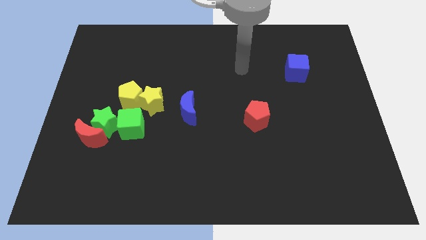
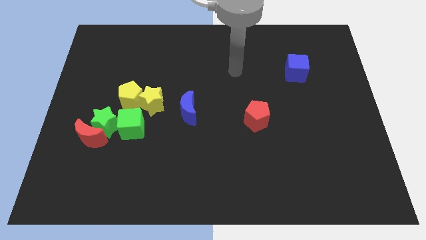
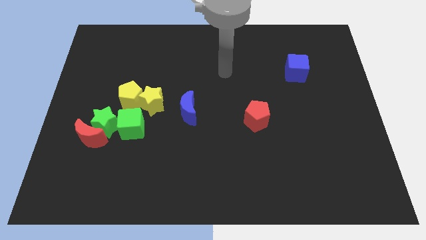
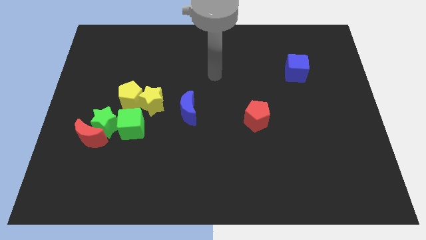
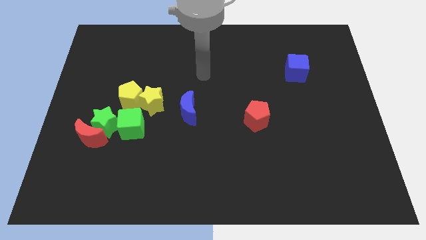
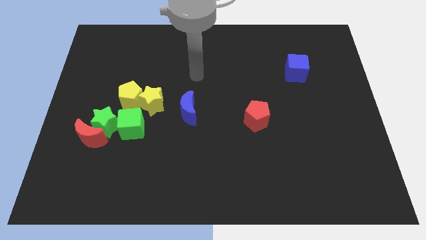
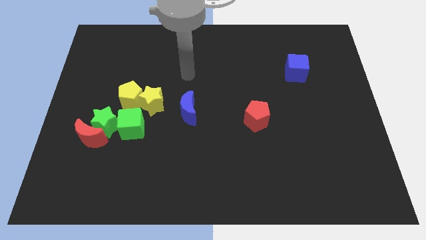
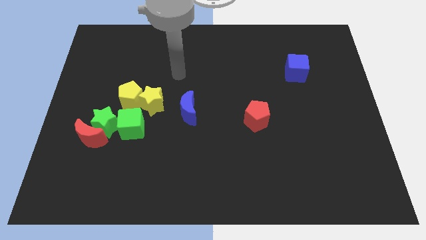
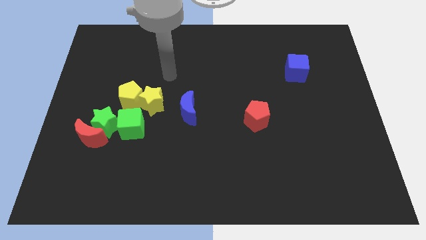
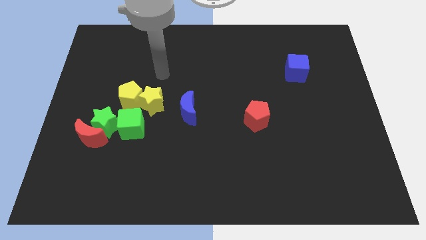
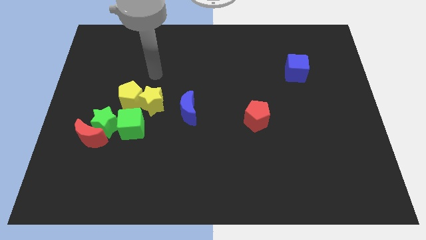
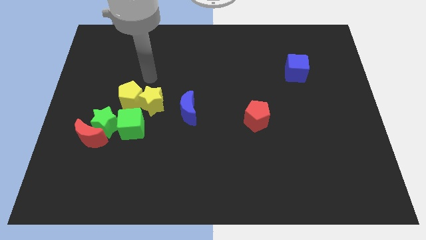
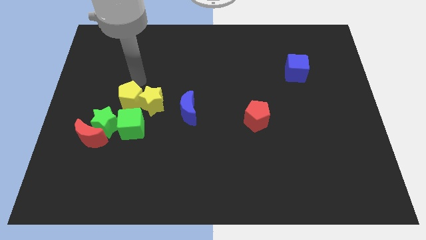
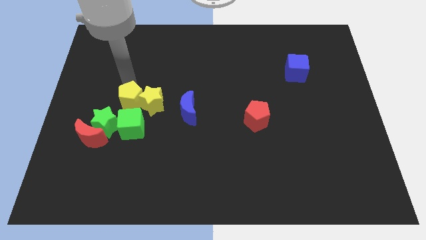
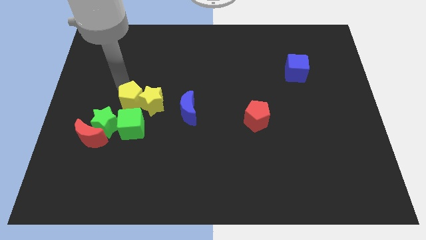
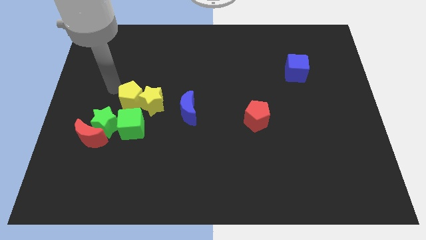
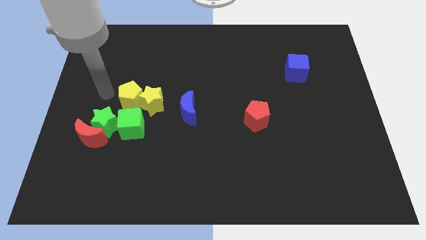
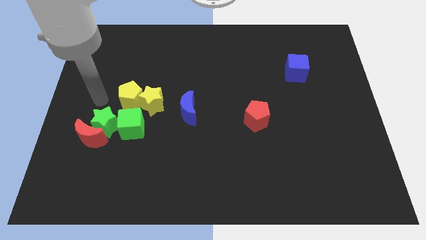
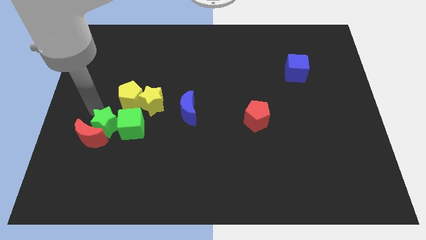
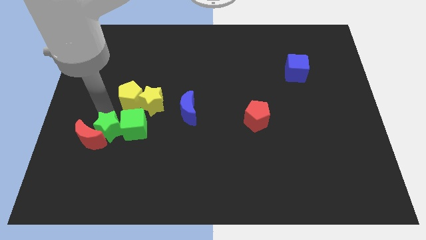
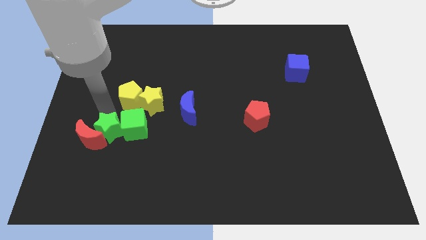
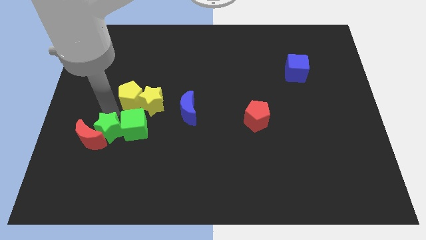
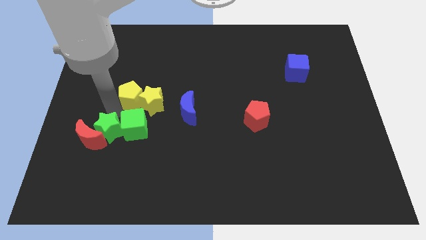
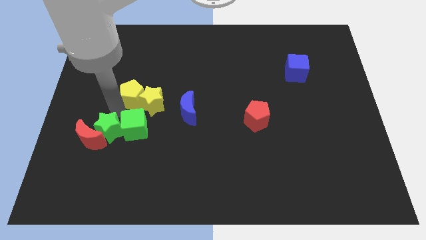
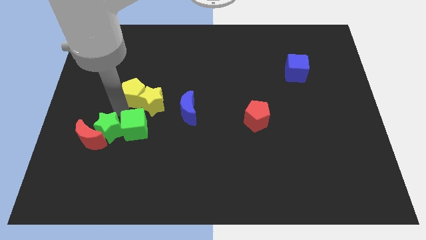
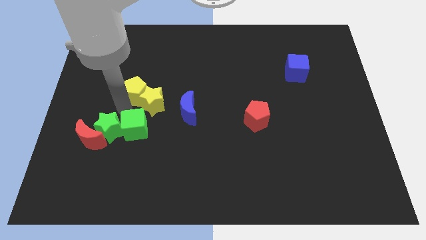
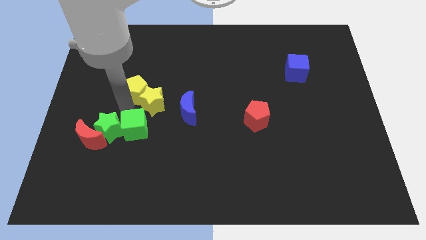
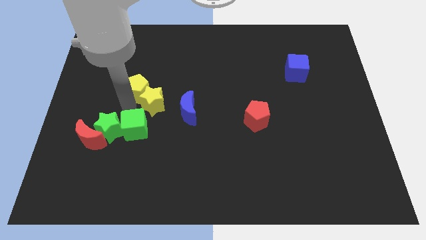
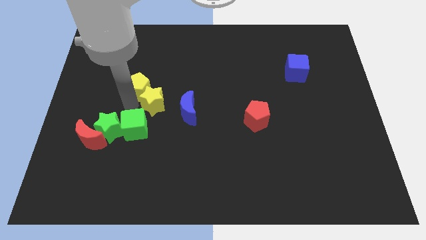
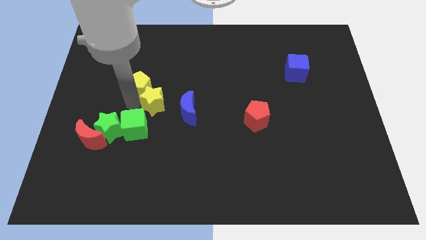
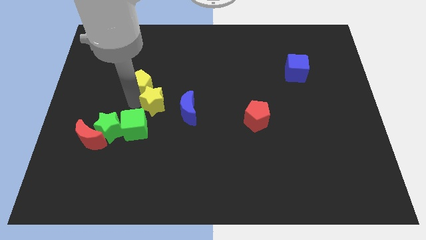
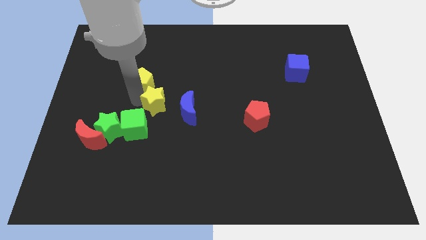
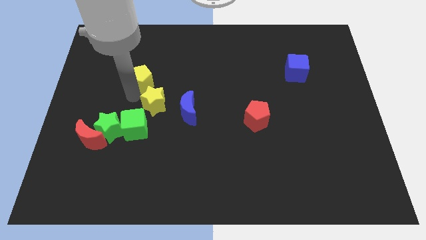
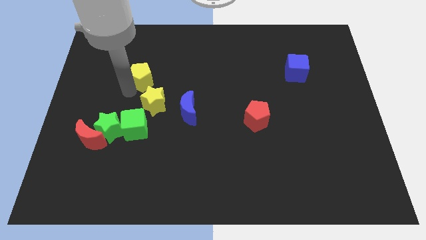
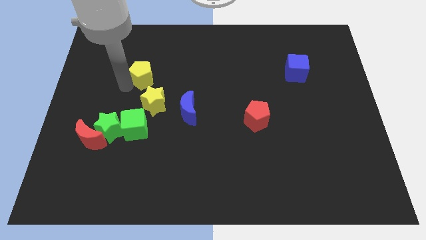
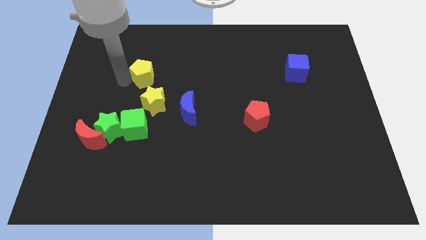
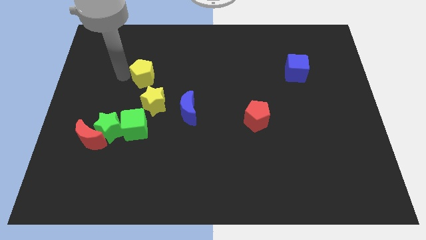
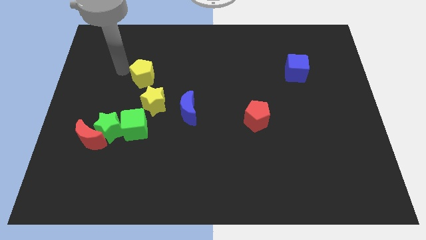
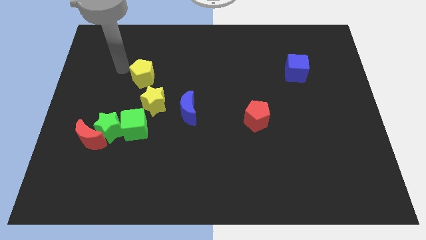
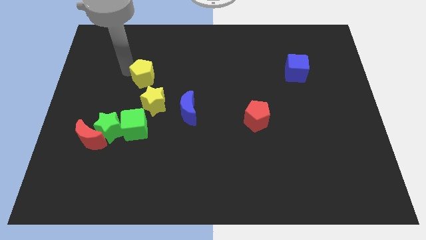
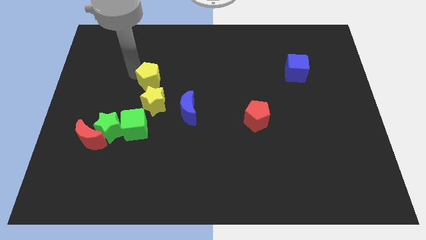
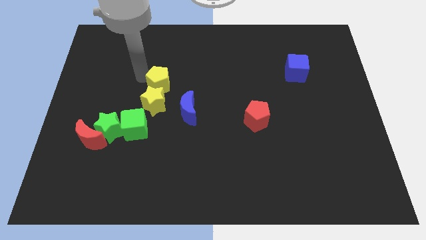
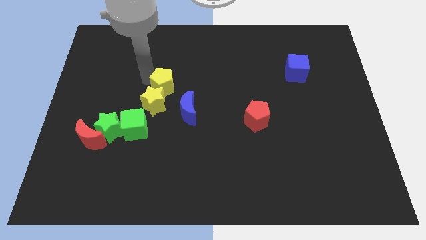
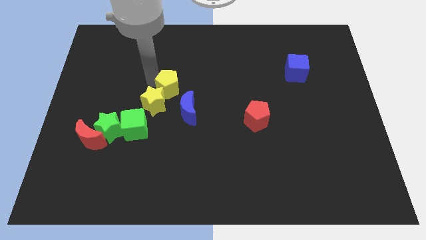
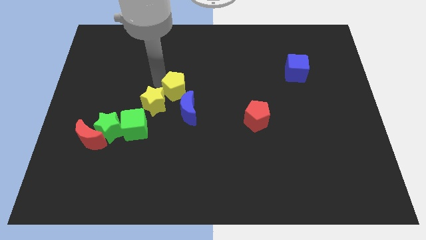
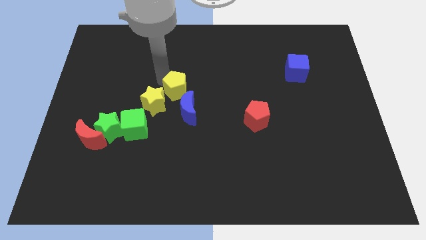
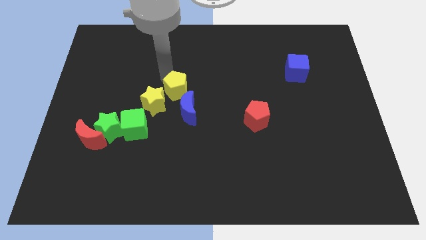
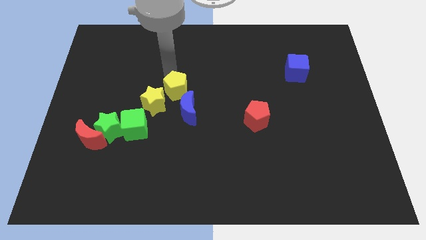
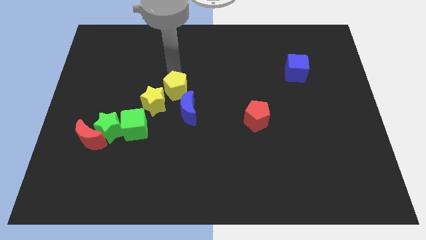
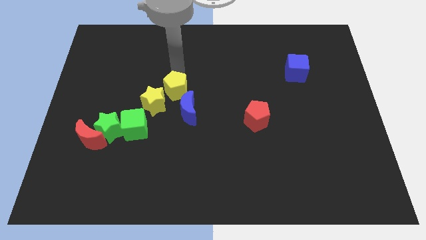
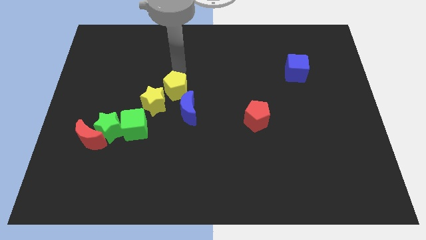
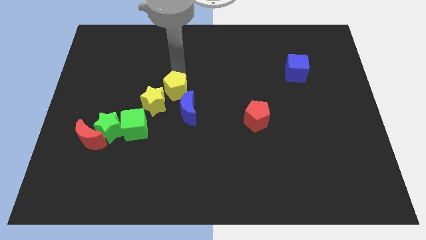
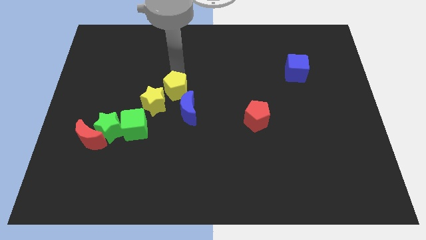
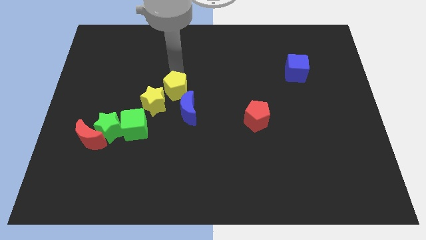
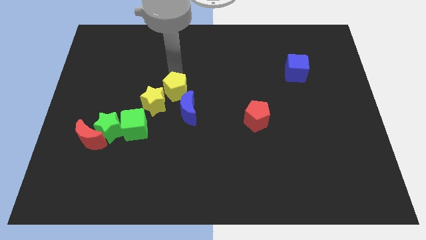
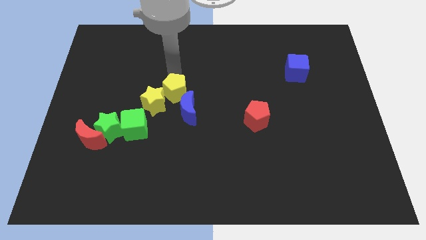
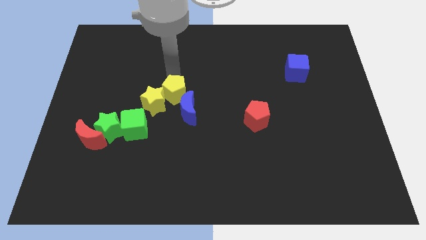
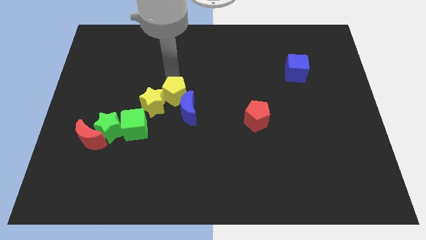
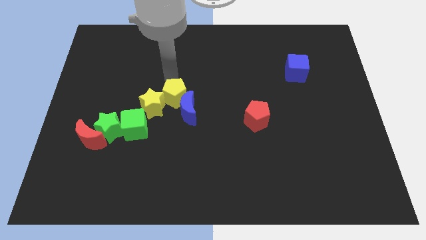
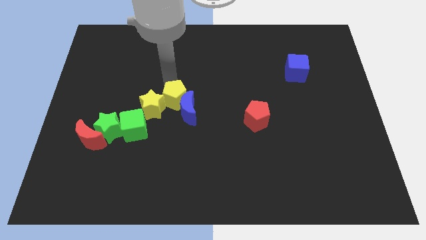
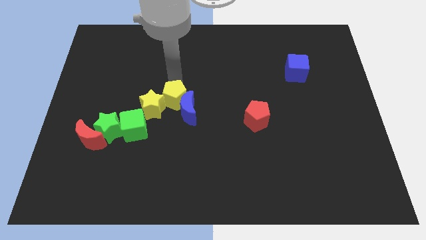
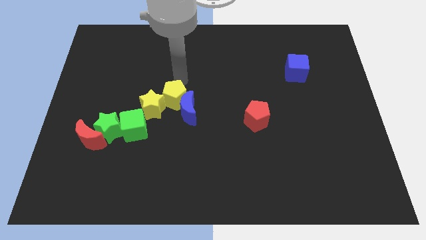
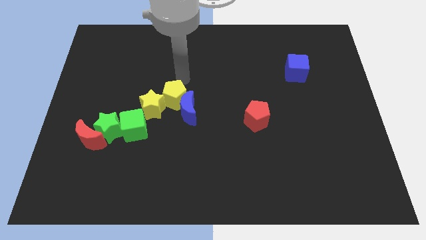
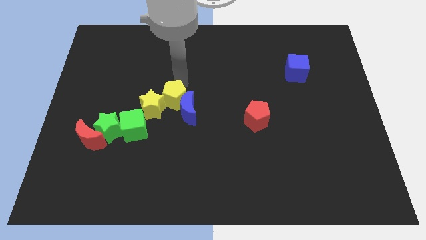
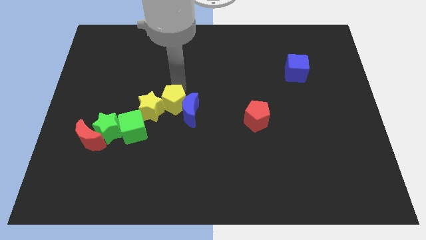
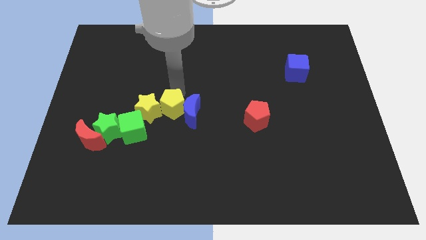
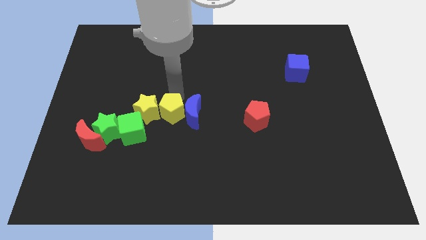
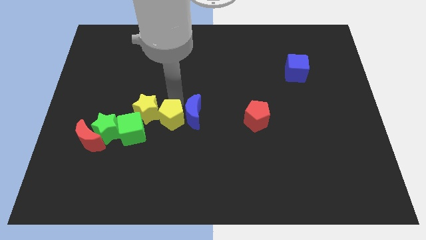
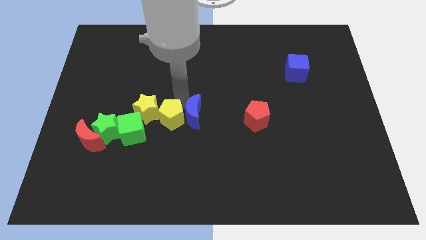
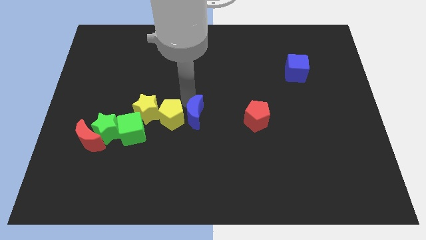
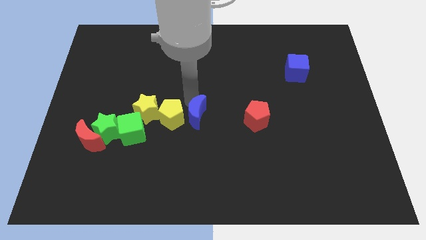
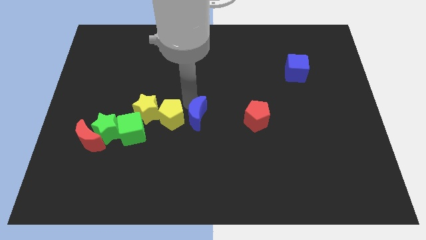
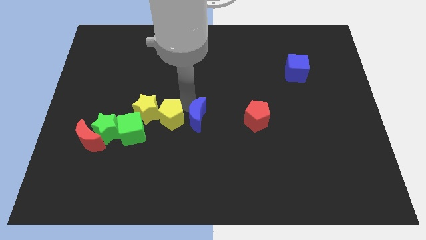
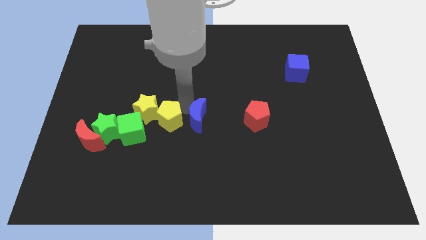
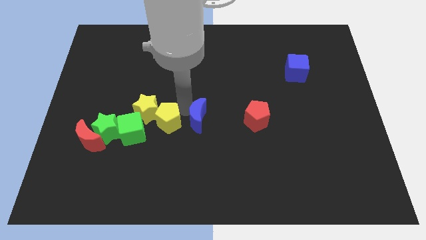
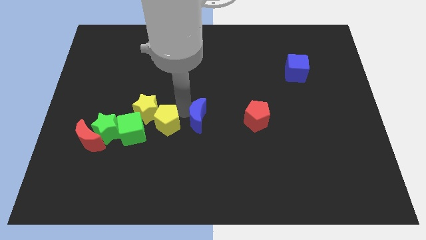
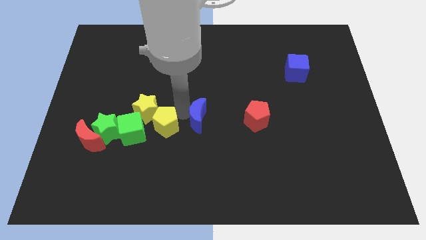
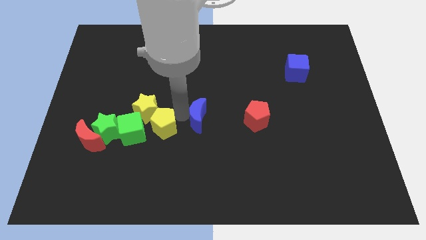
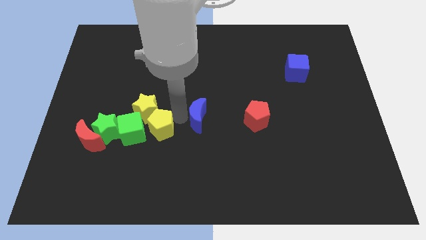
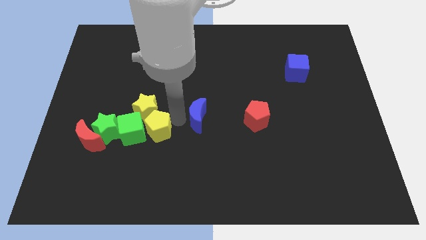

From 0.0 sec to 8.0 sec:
put the yellow pentagon to the right side of the red moon
